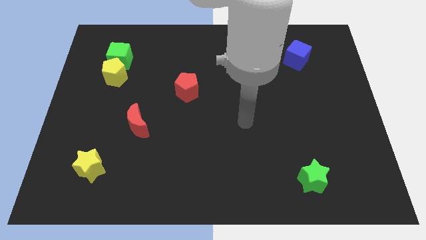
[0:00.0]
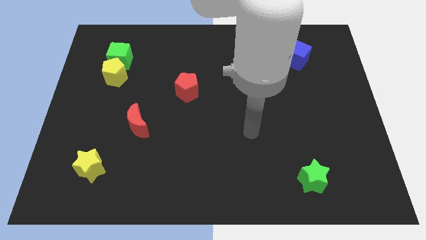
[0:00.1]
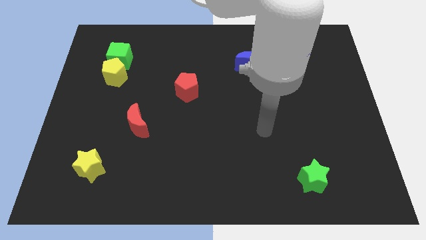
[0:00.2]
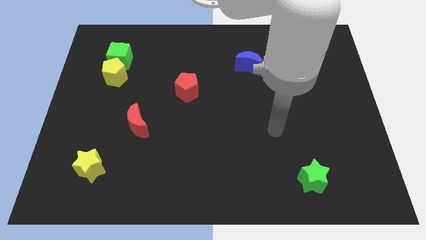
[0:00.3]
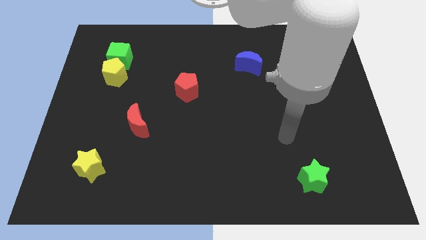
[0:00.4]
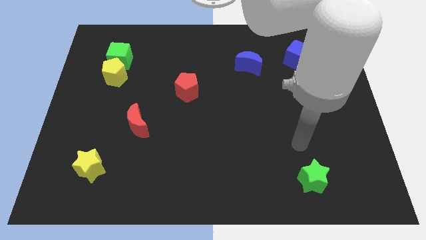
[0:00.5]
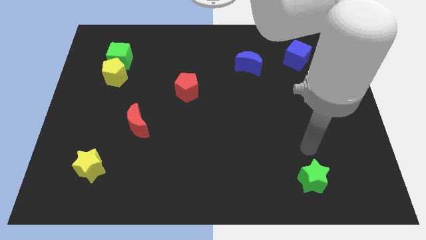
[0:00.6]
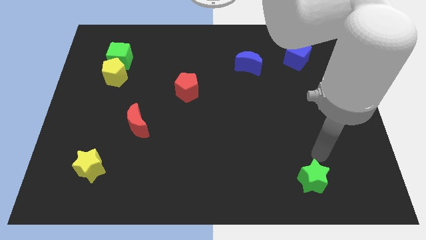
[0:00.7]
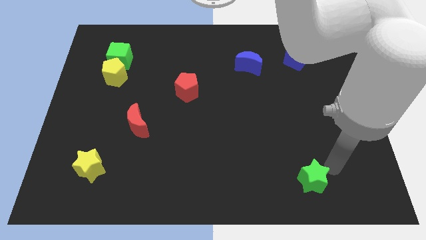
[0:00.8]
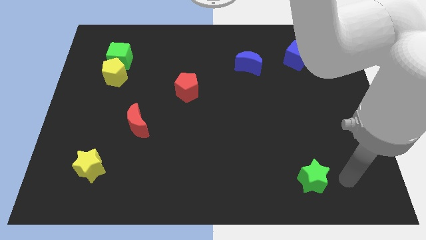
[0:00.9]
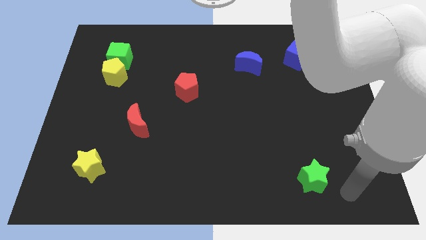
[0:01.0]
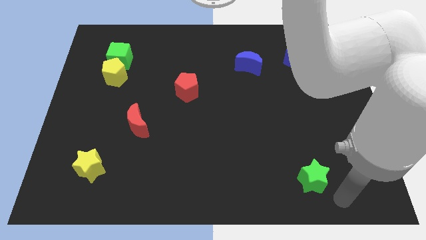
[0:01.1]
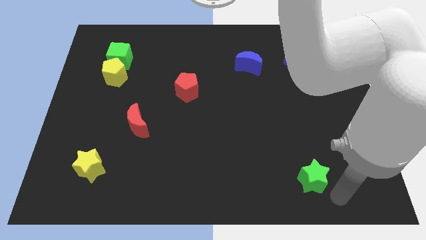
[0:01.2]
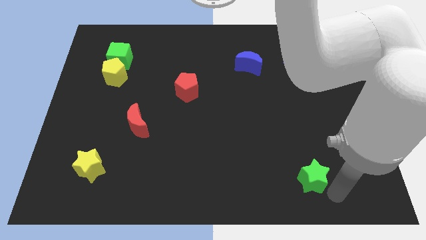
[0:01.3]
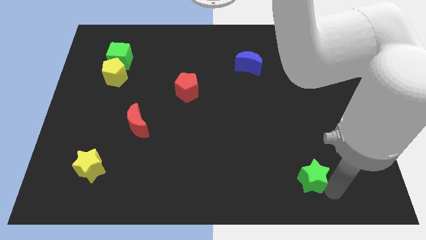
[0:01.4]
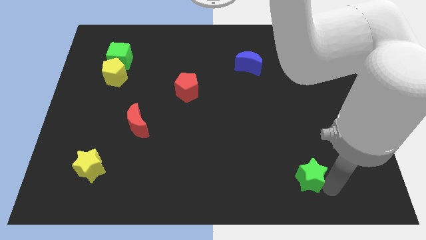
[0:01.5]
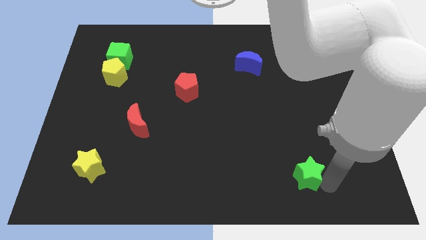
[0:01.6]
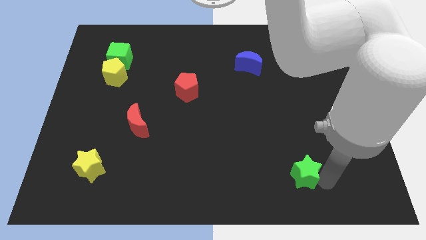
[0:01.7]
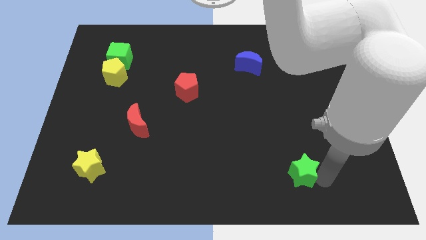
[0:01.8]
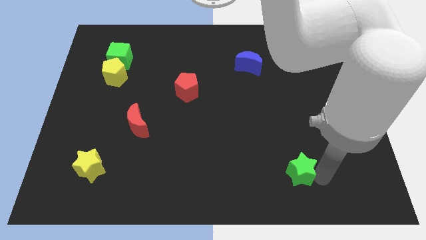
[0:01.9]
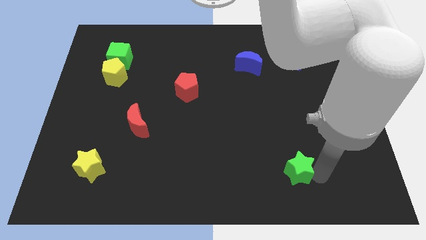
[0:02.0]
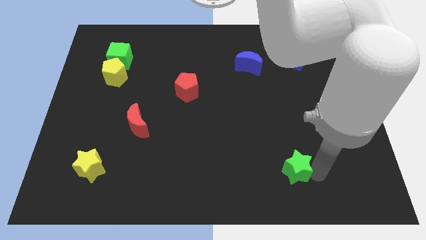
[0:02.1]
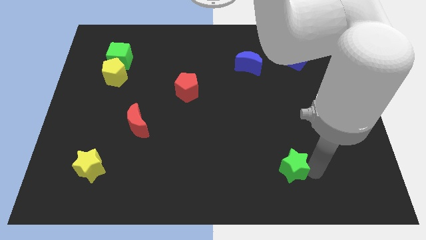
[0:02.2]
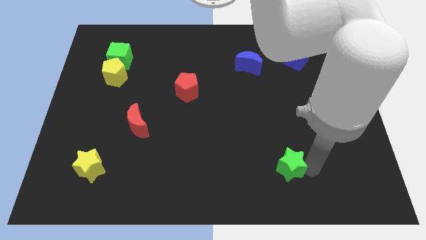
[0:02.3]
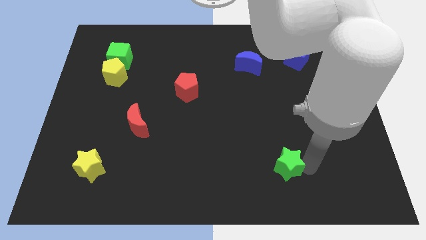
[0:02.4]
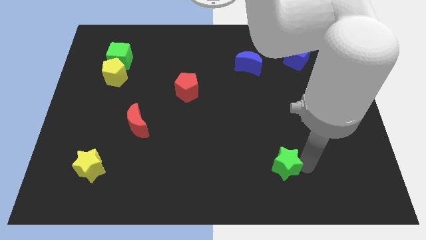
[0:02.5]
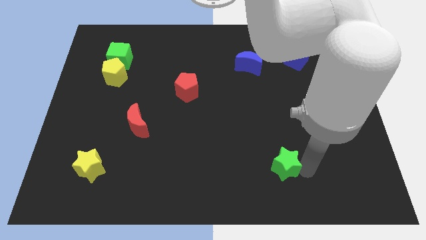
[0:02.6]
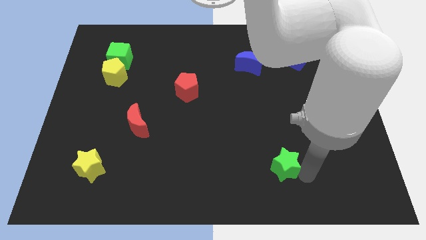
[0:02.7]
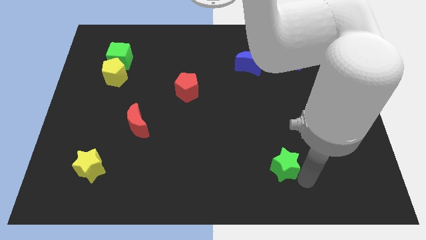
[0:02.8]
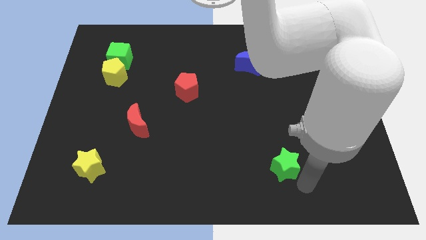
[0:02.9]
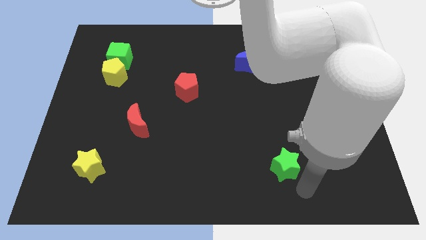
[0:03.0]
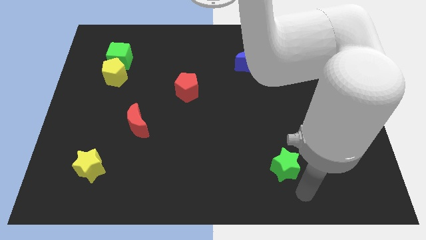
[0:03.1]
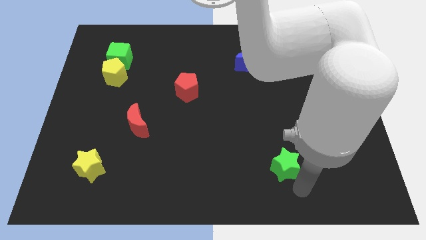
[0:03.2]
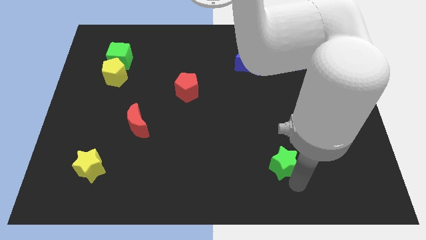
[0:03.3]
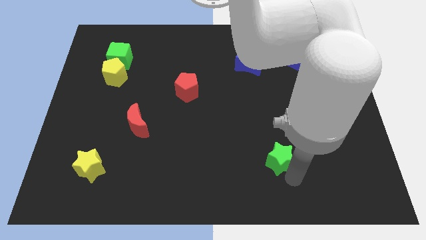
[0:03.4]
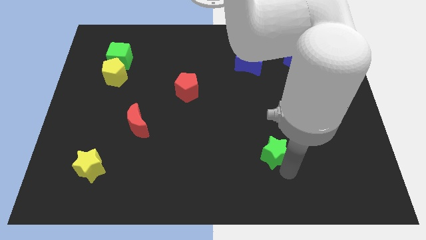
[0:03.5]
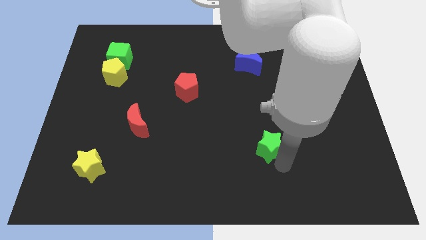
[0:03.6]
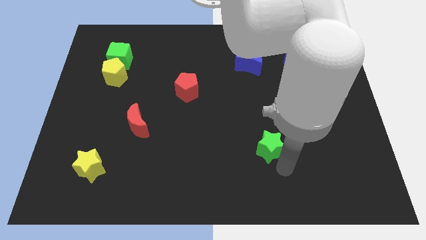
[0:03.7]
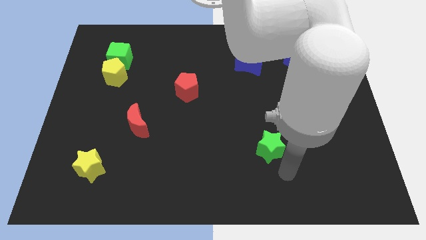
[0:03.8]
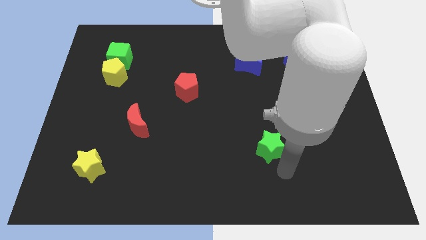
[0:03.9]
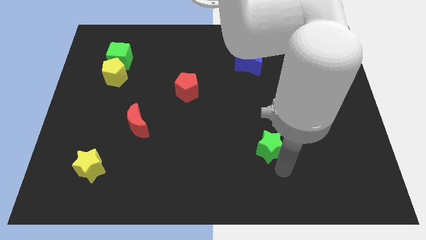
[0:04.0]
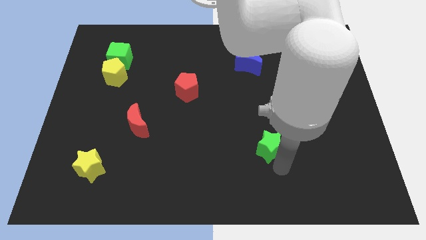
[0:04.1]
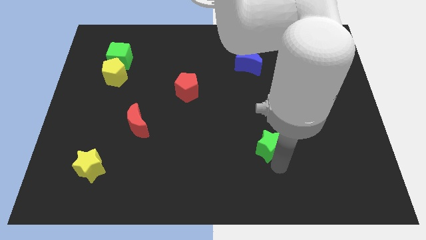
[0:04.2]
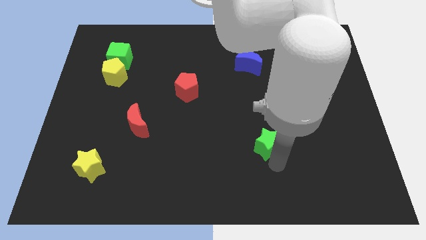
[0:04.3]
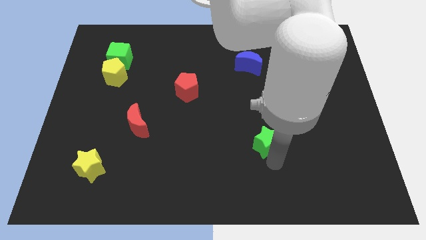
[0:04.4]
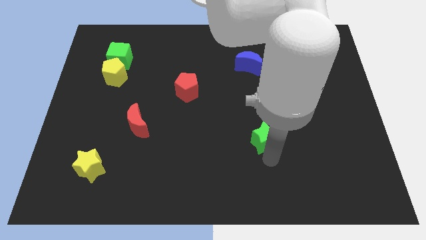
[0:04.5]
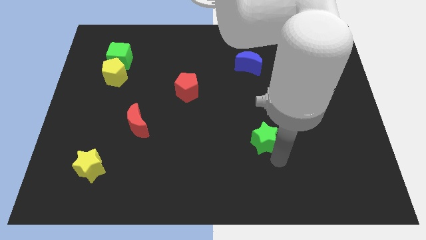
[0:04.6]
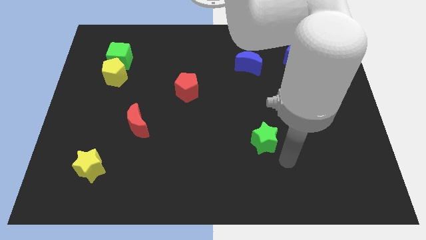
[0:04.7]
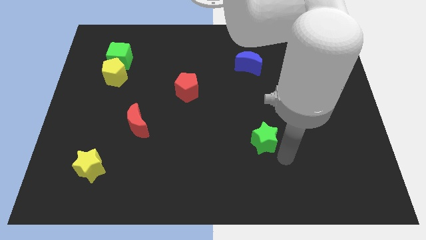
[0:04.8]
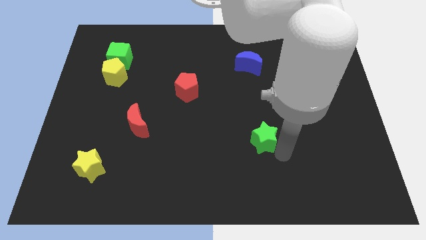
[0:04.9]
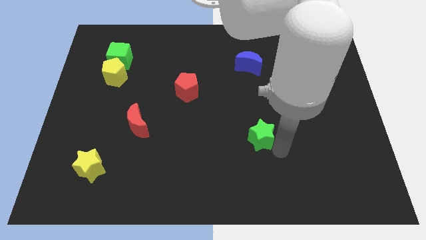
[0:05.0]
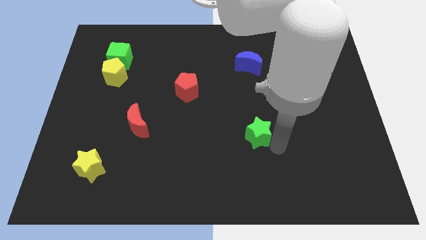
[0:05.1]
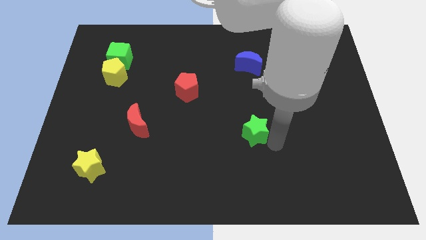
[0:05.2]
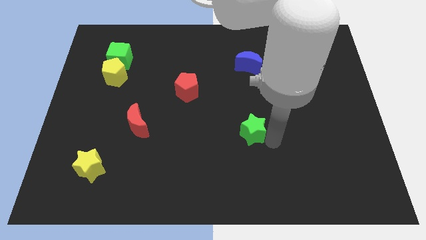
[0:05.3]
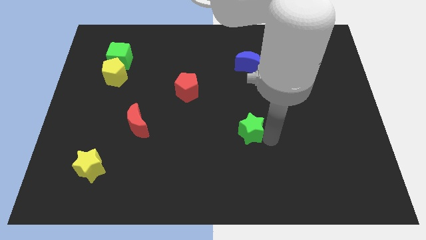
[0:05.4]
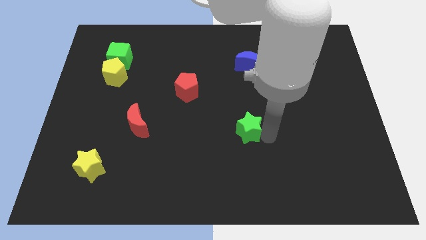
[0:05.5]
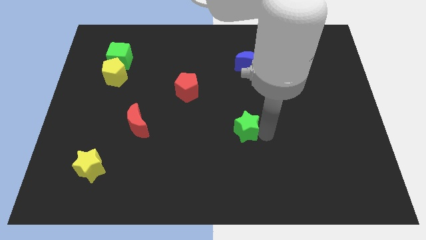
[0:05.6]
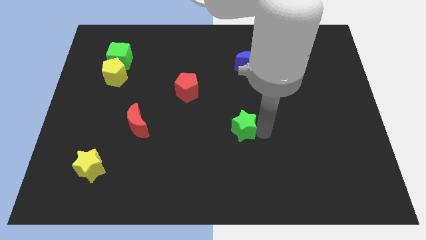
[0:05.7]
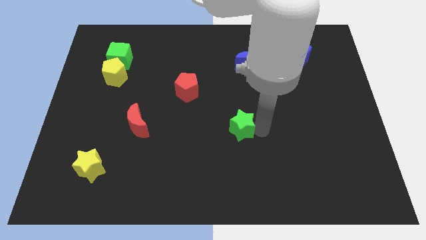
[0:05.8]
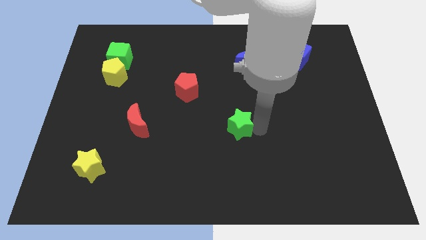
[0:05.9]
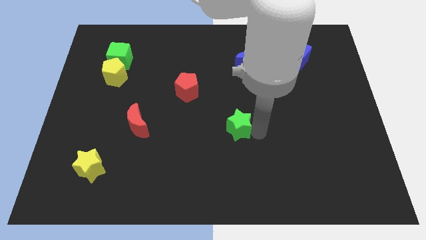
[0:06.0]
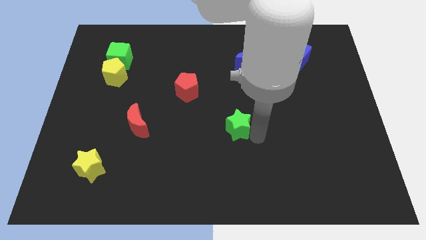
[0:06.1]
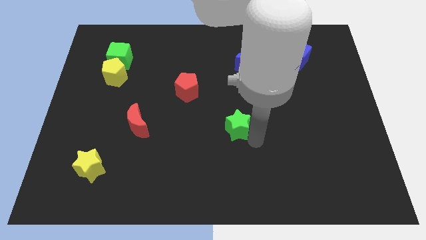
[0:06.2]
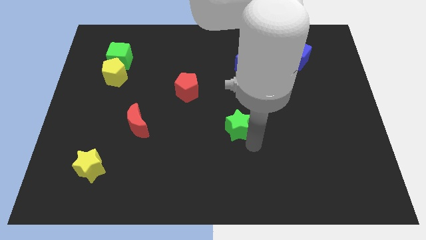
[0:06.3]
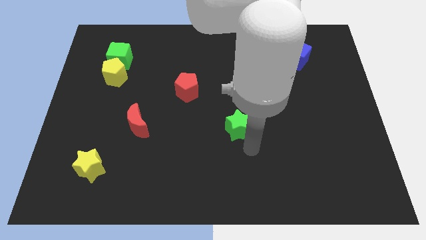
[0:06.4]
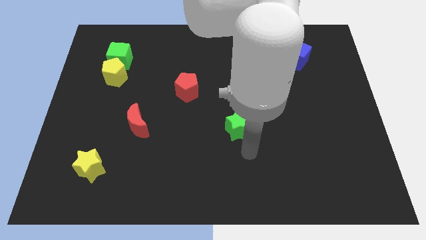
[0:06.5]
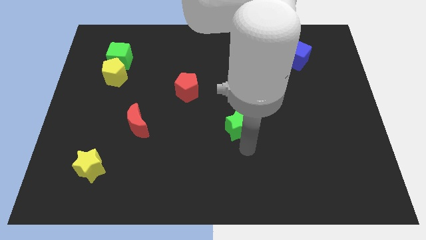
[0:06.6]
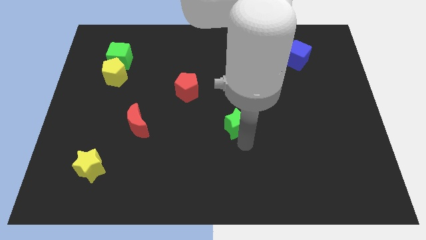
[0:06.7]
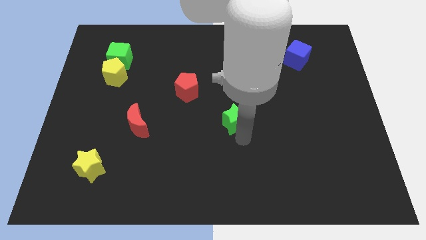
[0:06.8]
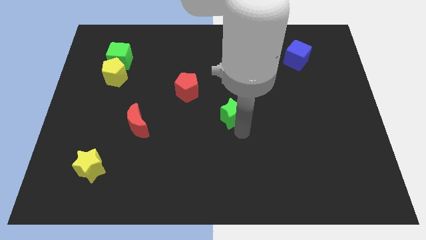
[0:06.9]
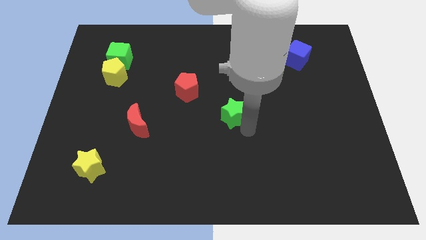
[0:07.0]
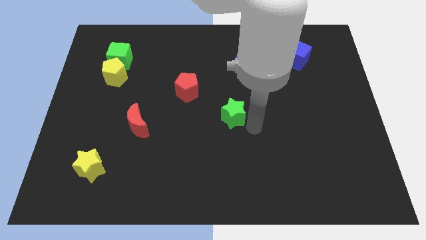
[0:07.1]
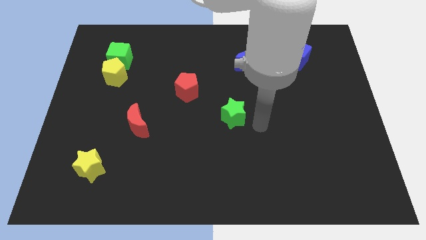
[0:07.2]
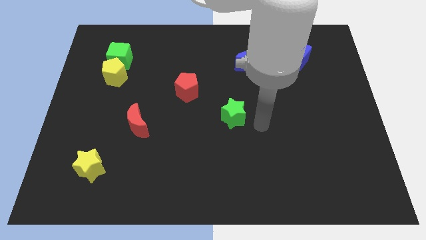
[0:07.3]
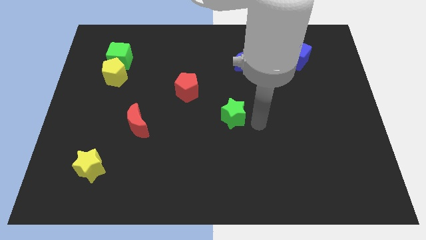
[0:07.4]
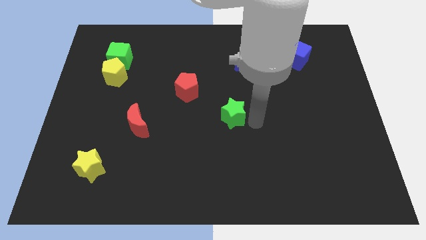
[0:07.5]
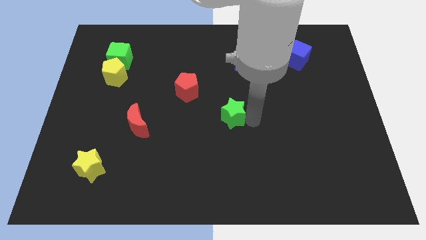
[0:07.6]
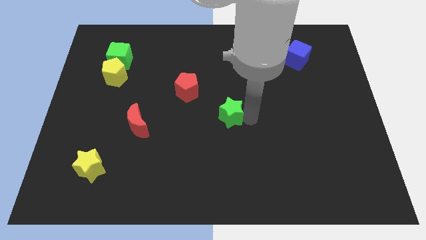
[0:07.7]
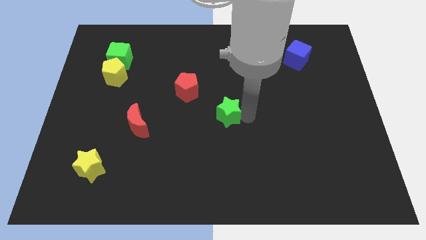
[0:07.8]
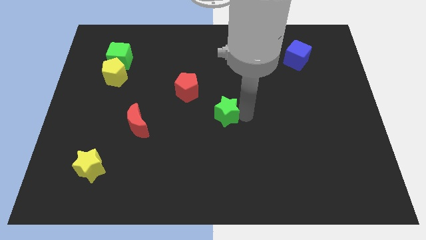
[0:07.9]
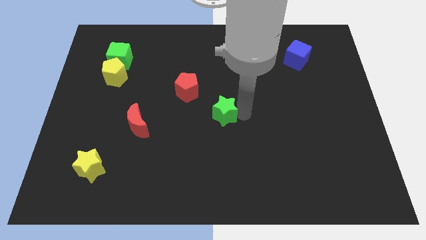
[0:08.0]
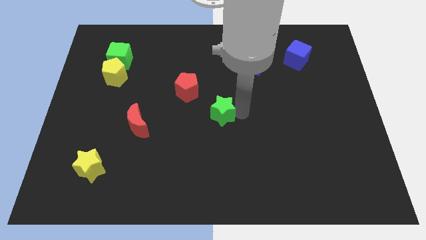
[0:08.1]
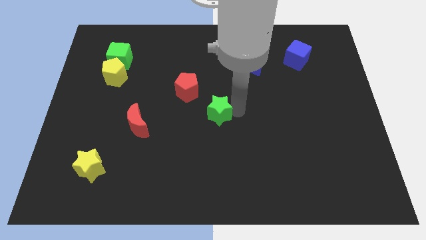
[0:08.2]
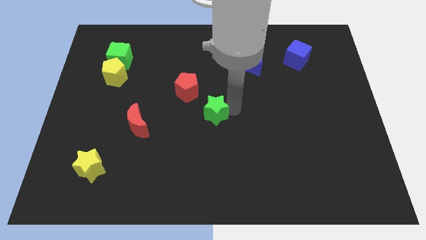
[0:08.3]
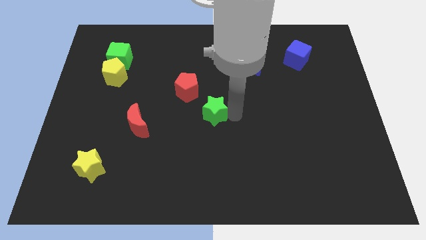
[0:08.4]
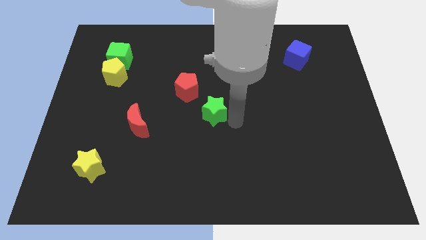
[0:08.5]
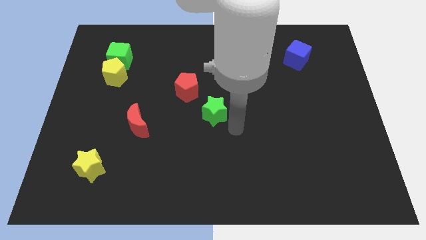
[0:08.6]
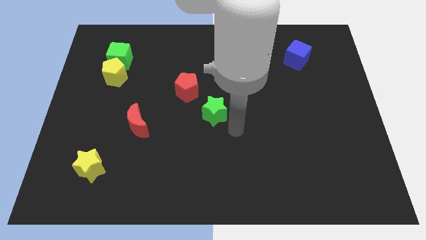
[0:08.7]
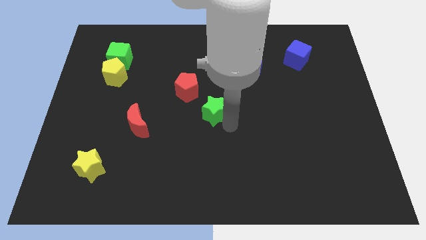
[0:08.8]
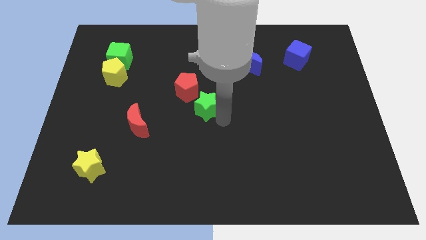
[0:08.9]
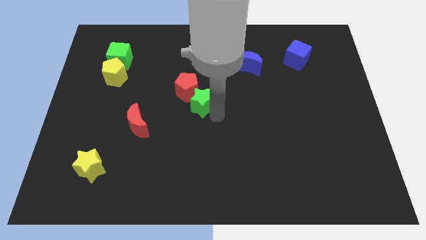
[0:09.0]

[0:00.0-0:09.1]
push the green star close to the red pentagon
